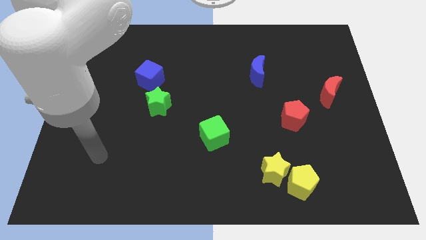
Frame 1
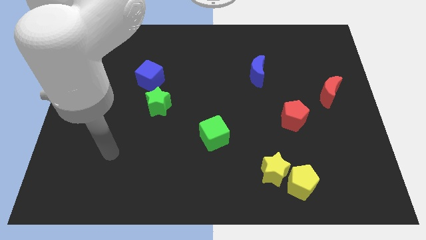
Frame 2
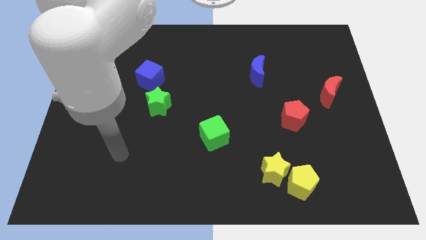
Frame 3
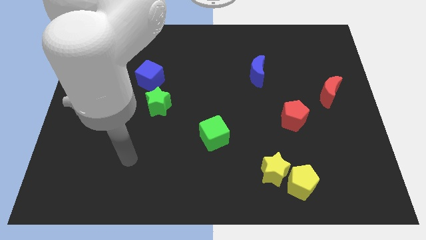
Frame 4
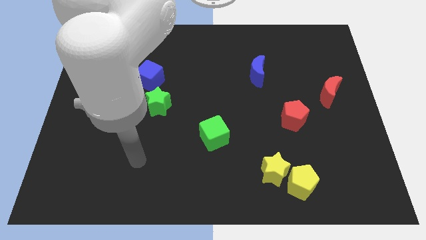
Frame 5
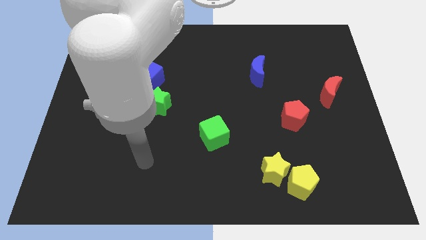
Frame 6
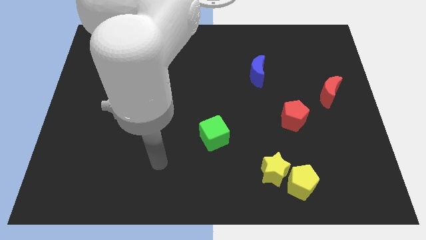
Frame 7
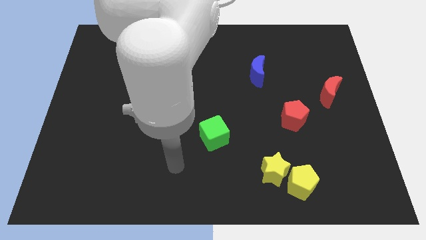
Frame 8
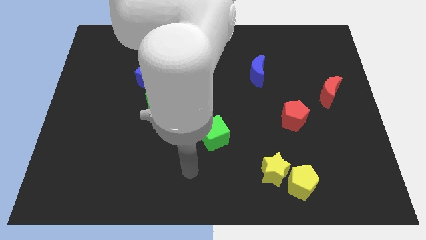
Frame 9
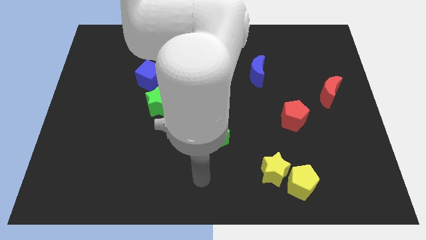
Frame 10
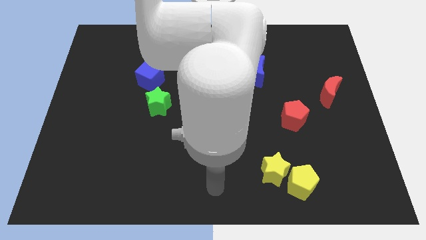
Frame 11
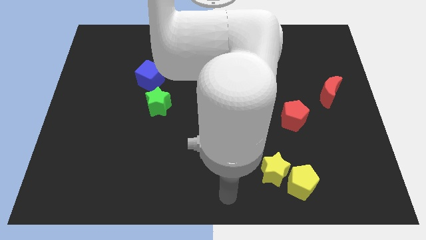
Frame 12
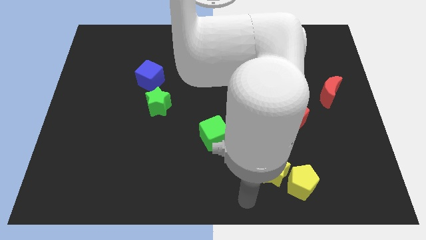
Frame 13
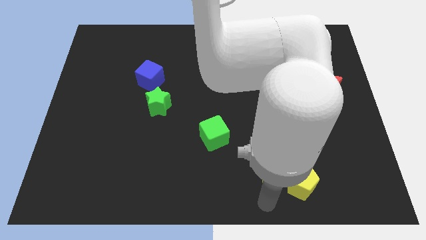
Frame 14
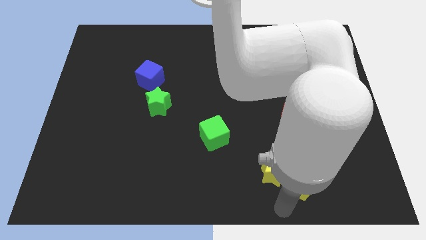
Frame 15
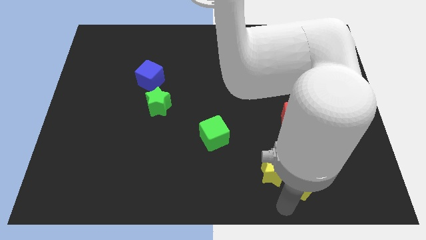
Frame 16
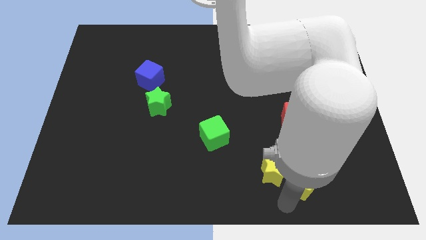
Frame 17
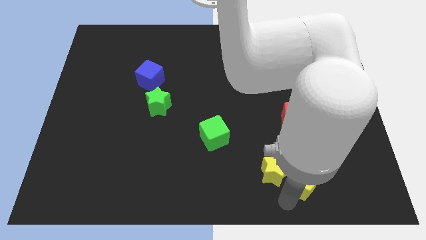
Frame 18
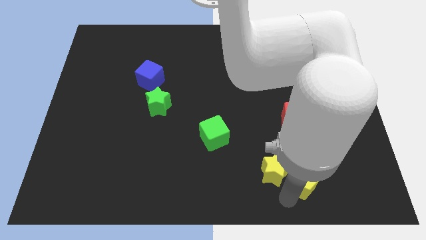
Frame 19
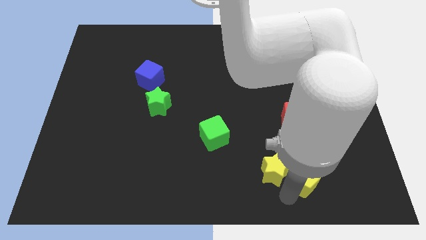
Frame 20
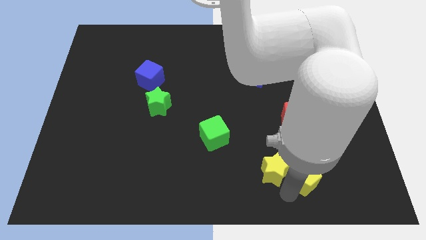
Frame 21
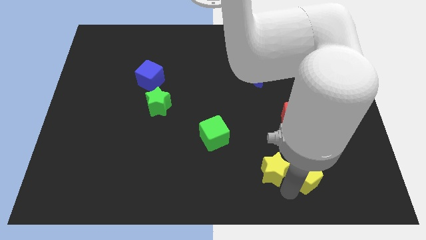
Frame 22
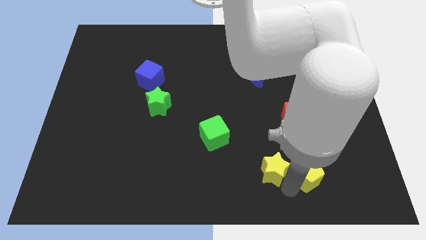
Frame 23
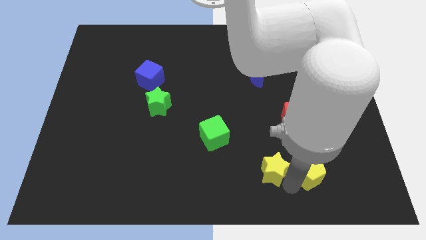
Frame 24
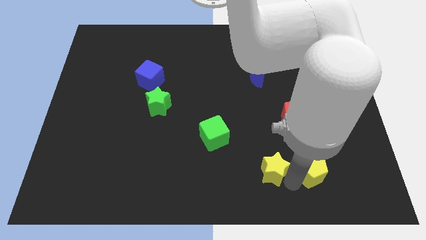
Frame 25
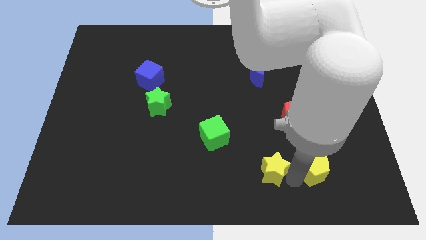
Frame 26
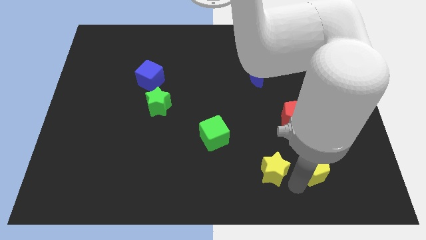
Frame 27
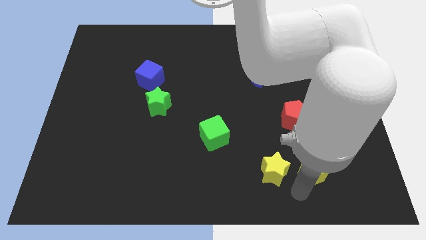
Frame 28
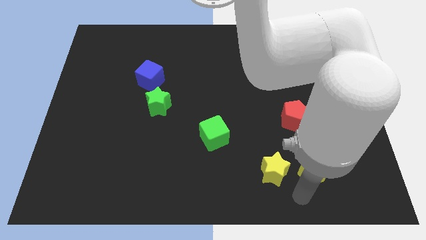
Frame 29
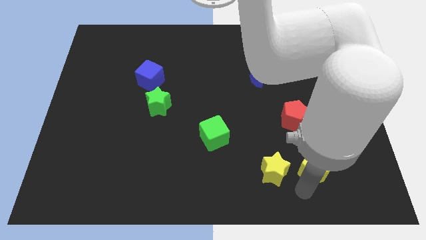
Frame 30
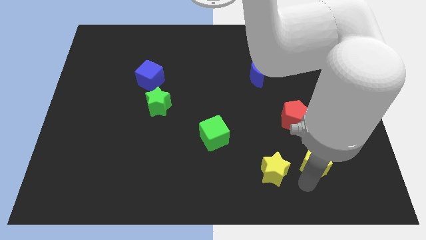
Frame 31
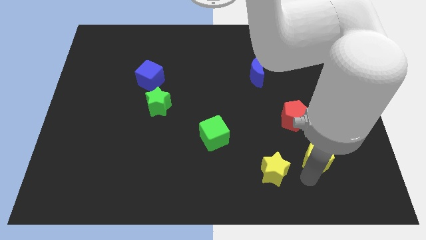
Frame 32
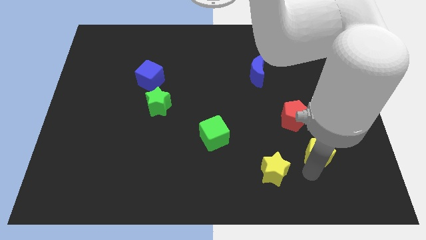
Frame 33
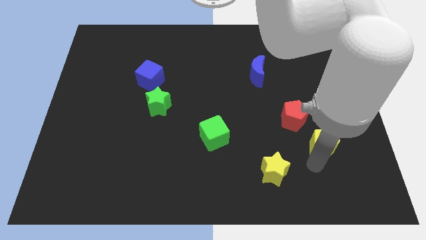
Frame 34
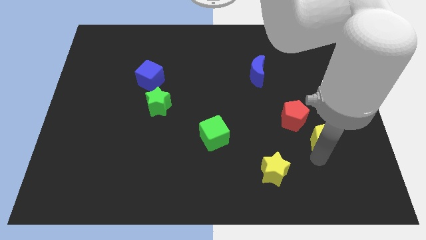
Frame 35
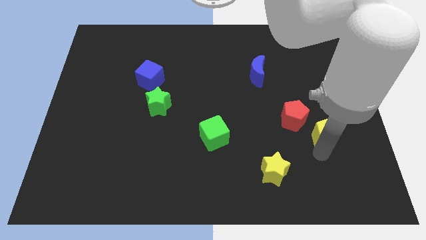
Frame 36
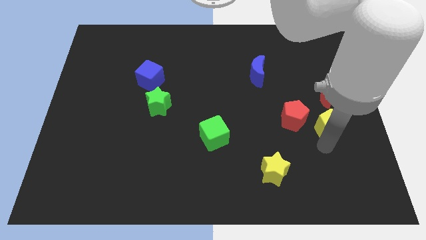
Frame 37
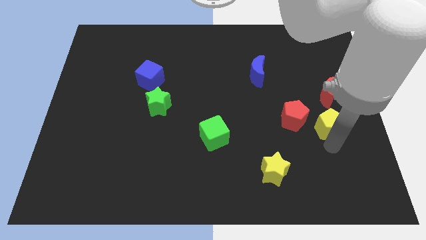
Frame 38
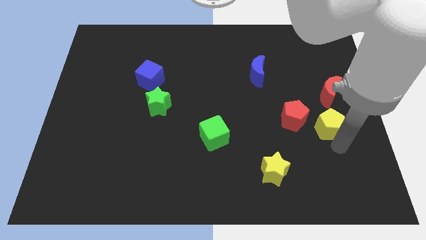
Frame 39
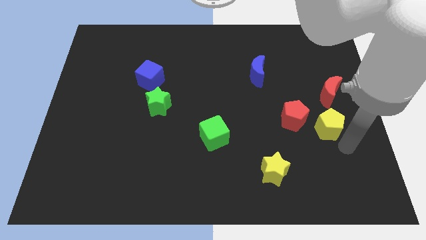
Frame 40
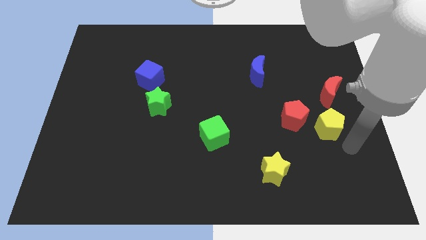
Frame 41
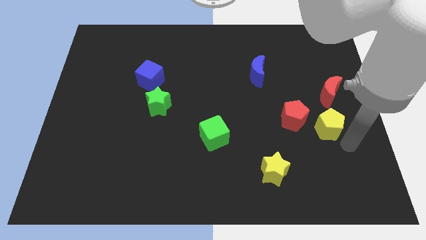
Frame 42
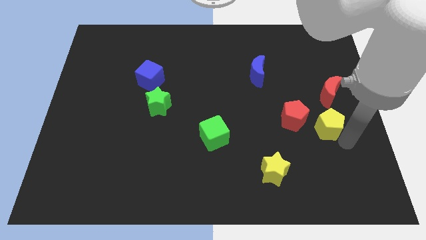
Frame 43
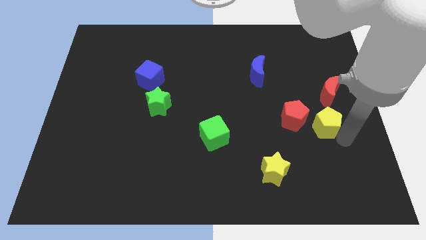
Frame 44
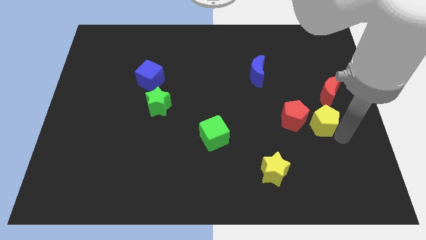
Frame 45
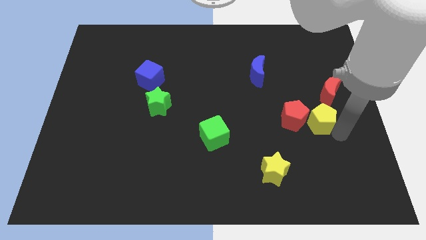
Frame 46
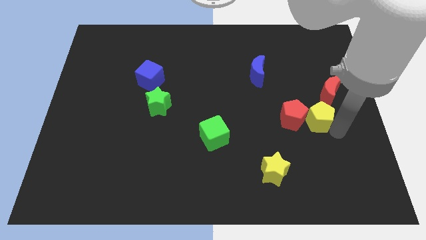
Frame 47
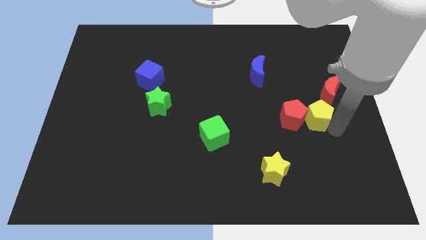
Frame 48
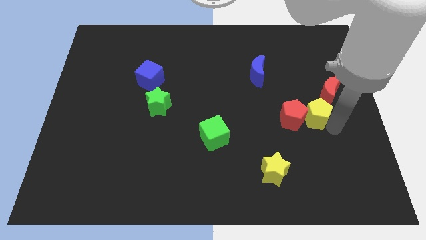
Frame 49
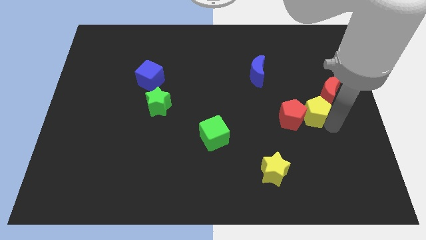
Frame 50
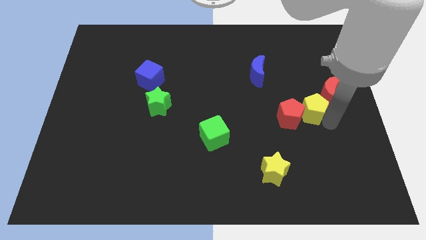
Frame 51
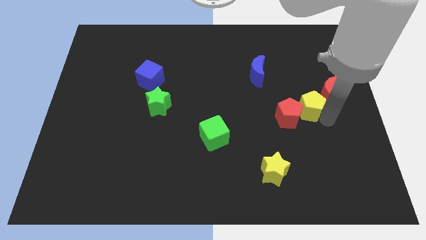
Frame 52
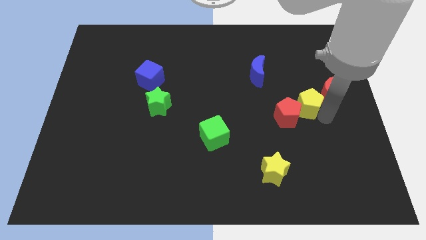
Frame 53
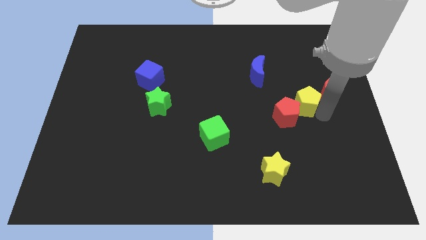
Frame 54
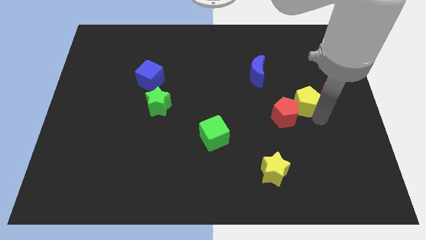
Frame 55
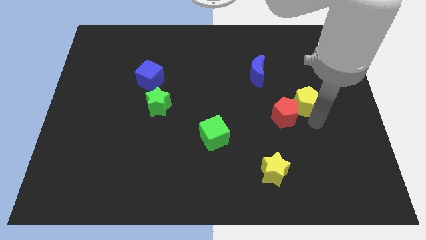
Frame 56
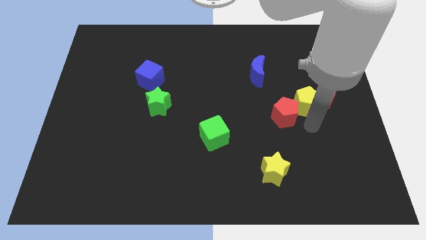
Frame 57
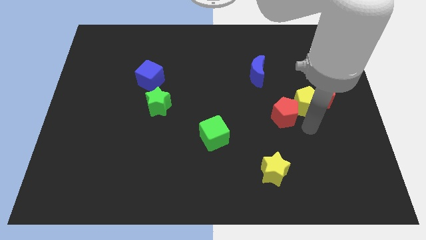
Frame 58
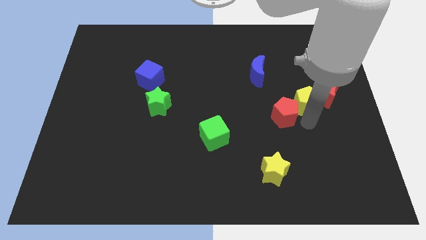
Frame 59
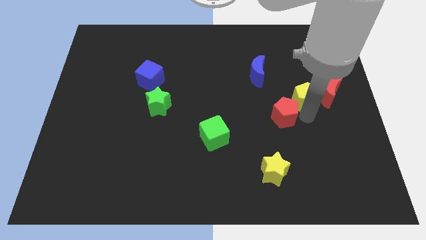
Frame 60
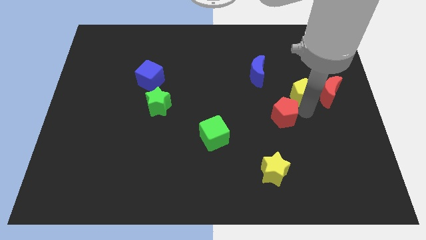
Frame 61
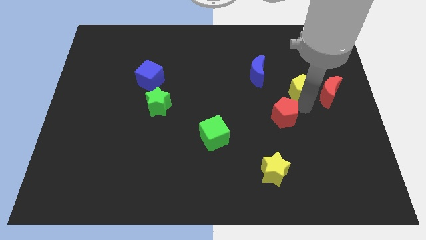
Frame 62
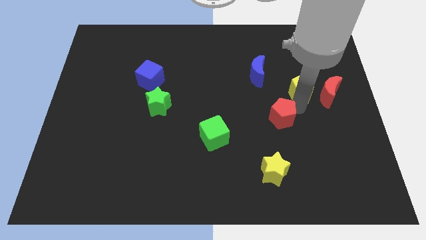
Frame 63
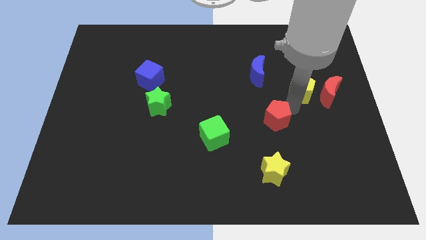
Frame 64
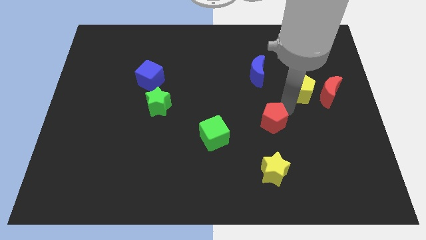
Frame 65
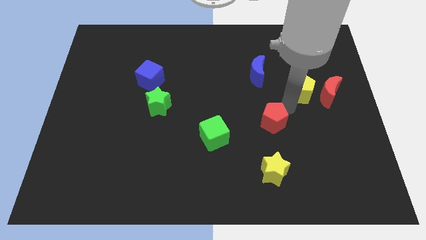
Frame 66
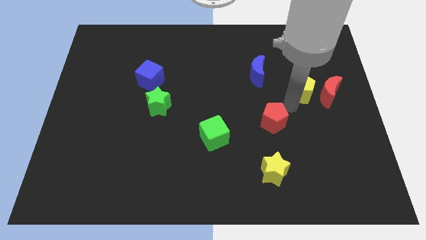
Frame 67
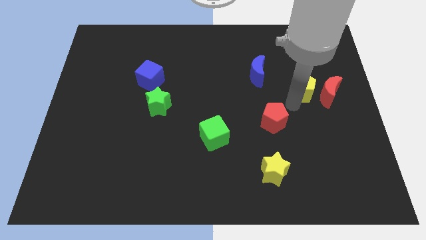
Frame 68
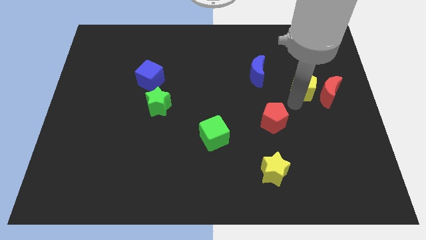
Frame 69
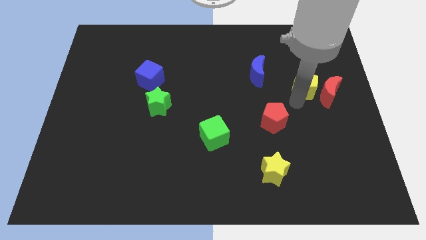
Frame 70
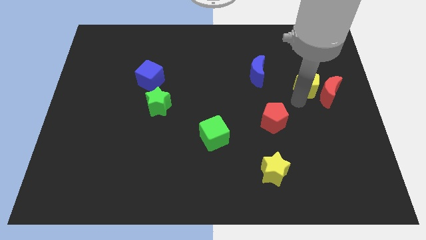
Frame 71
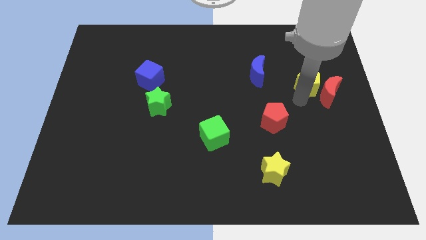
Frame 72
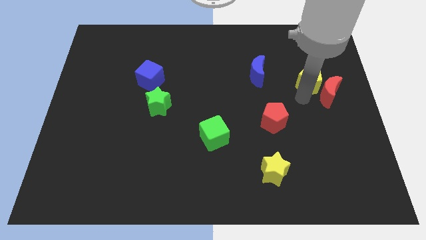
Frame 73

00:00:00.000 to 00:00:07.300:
slide the yellow pentagon to the top side of the red moon
